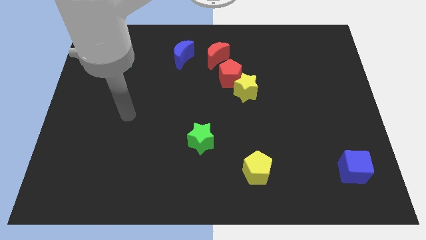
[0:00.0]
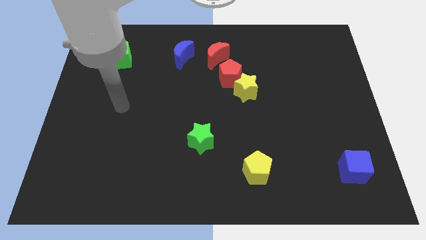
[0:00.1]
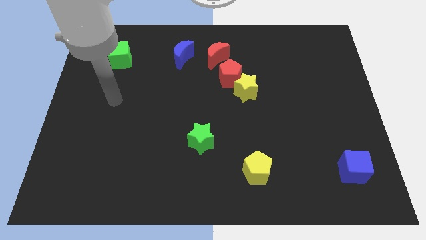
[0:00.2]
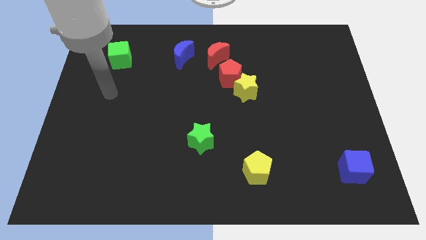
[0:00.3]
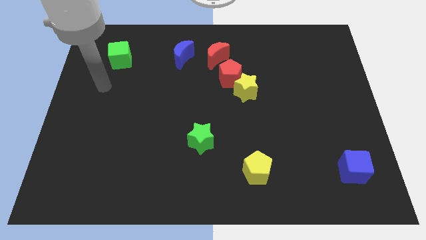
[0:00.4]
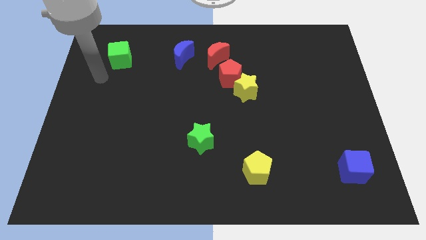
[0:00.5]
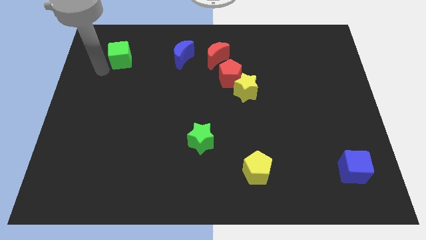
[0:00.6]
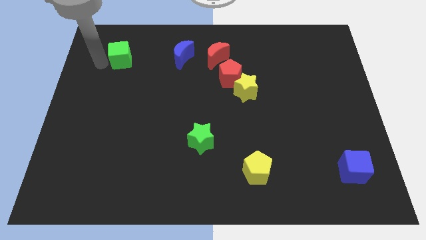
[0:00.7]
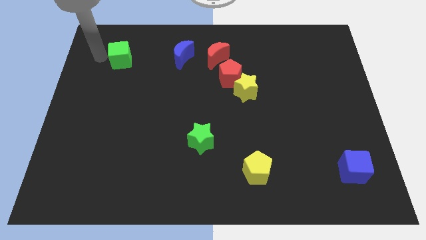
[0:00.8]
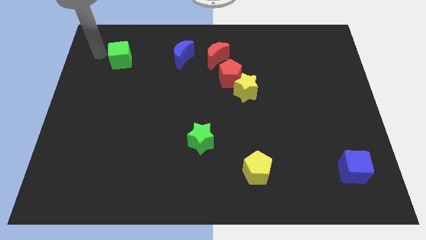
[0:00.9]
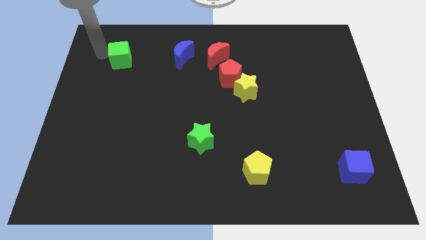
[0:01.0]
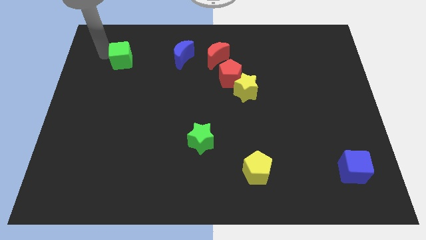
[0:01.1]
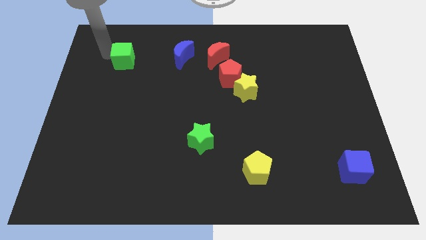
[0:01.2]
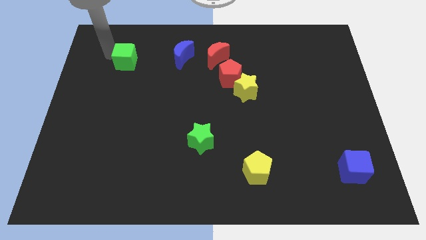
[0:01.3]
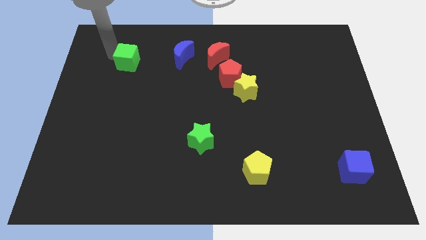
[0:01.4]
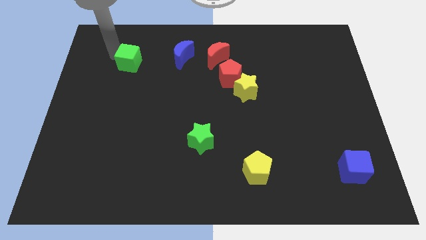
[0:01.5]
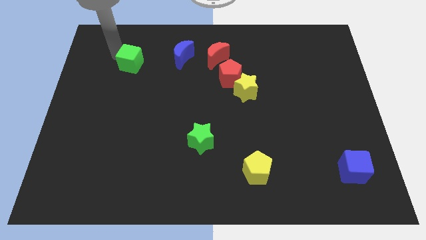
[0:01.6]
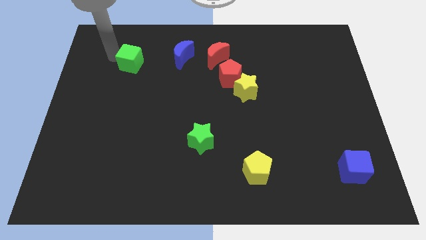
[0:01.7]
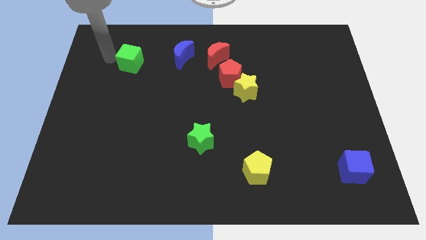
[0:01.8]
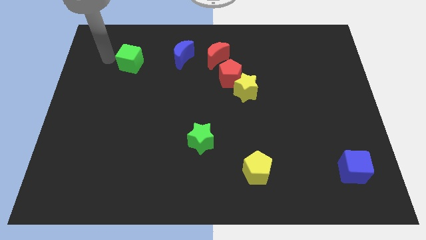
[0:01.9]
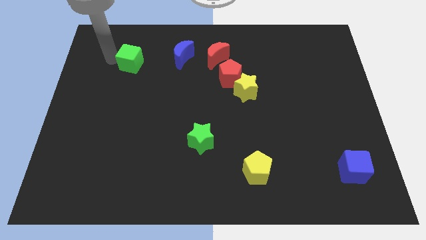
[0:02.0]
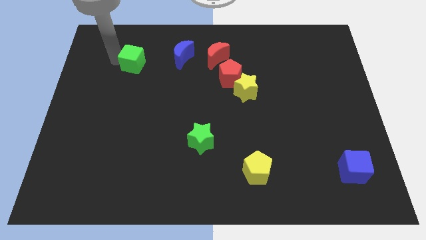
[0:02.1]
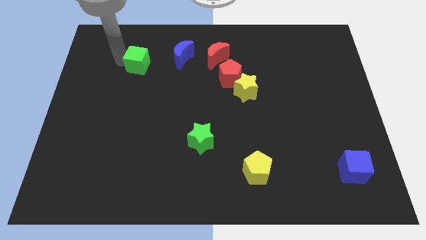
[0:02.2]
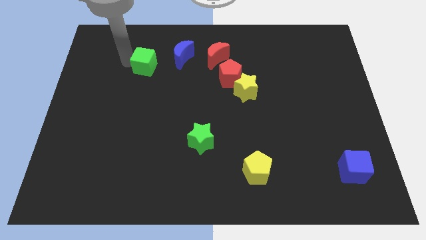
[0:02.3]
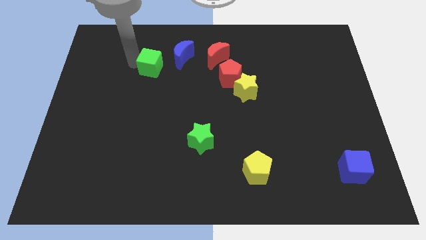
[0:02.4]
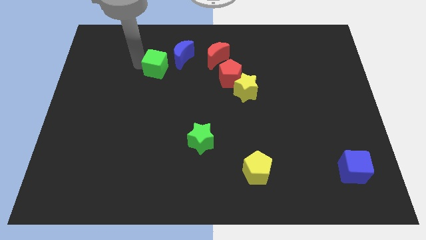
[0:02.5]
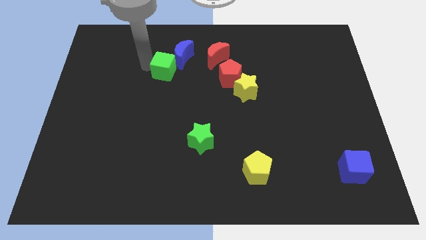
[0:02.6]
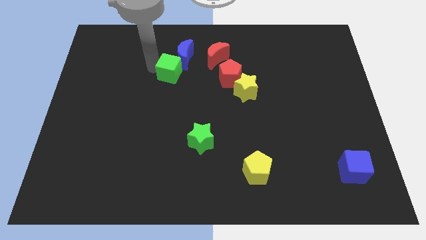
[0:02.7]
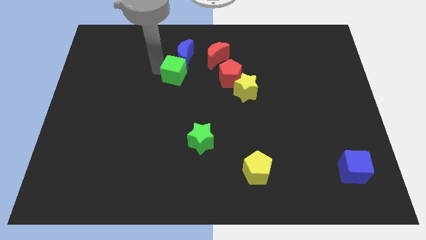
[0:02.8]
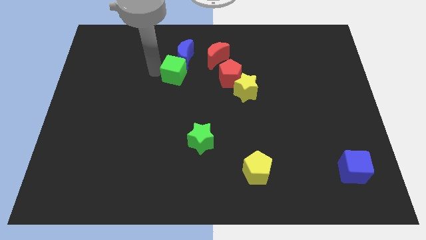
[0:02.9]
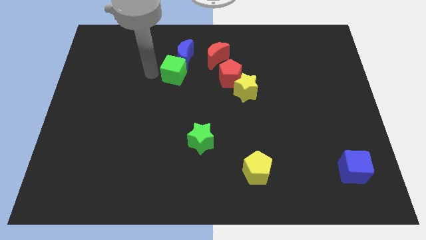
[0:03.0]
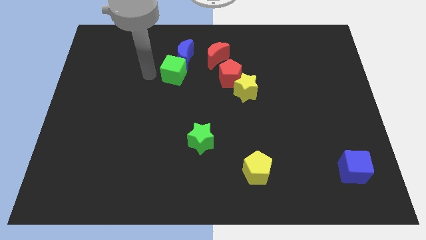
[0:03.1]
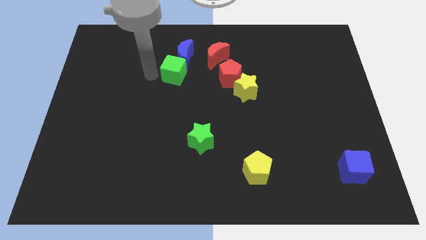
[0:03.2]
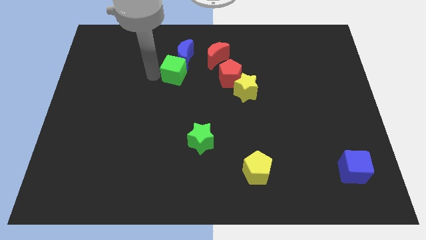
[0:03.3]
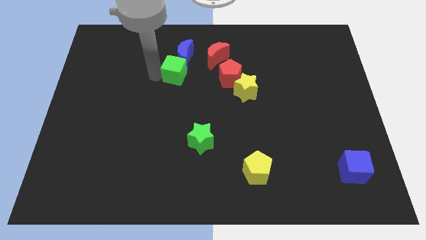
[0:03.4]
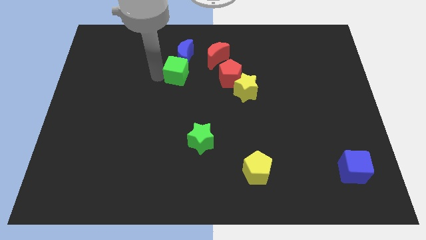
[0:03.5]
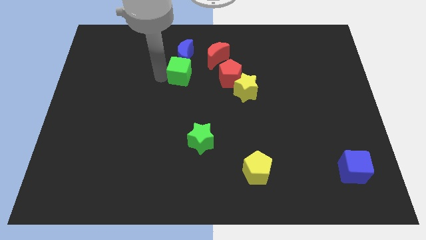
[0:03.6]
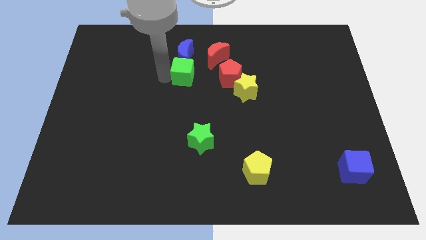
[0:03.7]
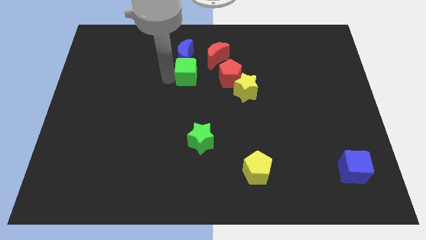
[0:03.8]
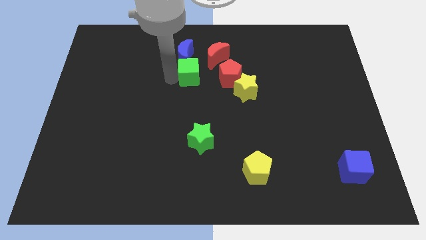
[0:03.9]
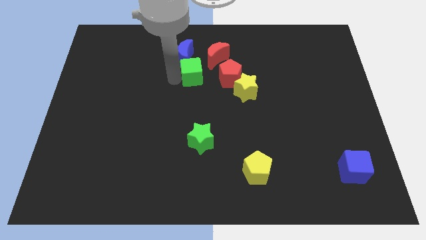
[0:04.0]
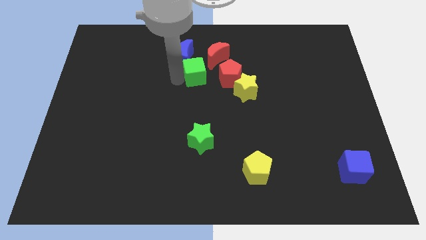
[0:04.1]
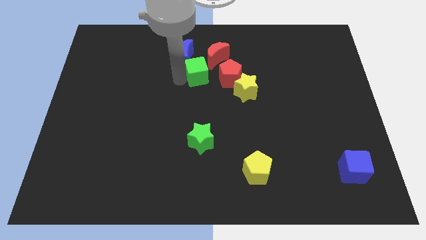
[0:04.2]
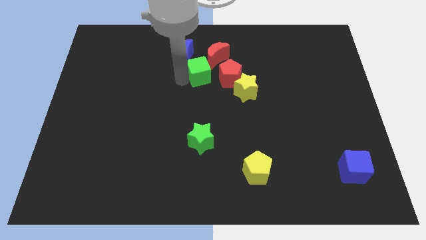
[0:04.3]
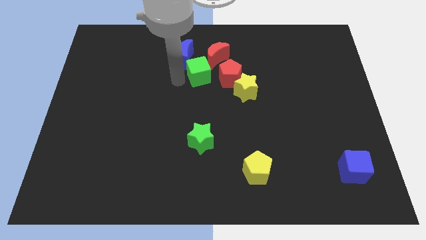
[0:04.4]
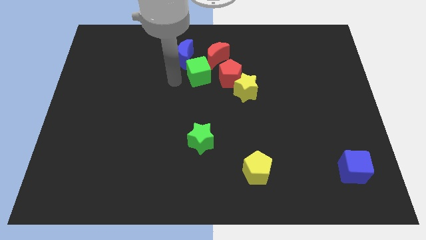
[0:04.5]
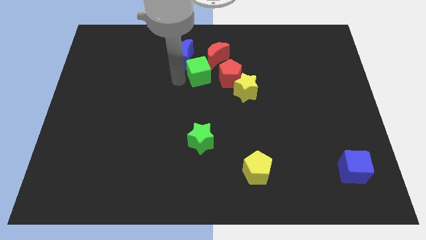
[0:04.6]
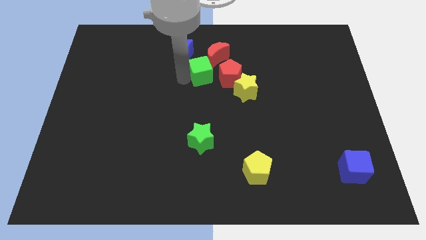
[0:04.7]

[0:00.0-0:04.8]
push the green cube right

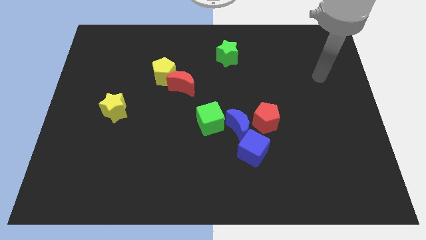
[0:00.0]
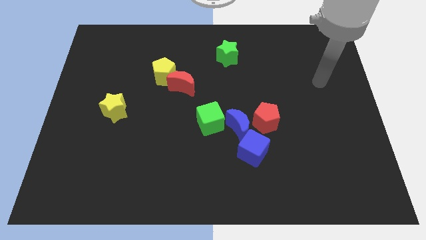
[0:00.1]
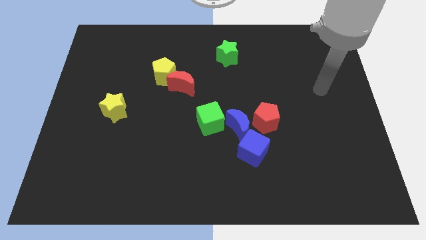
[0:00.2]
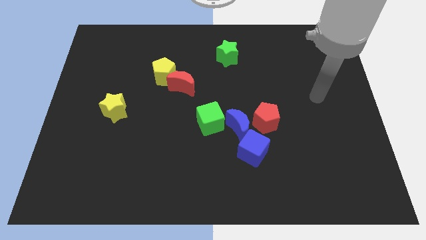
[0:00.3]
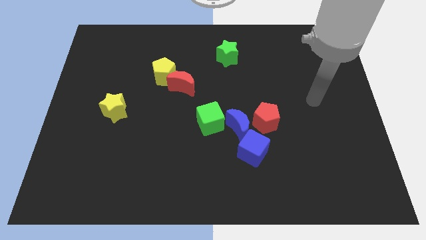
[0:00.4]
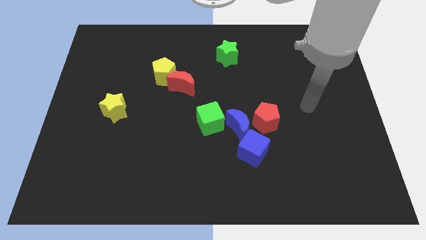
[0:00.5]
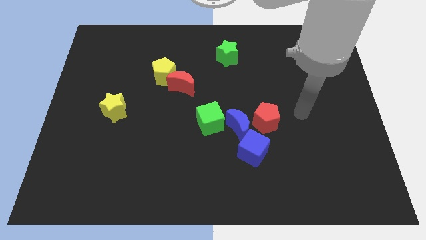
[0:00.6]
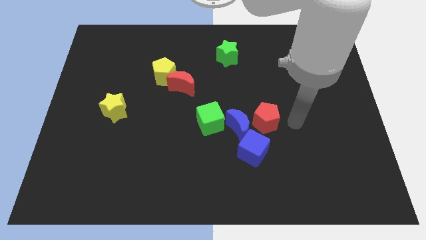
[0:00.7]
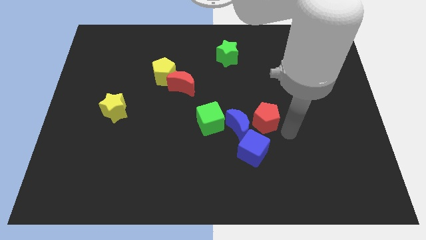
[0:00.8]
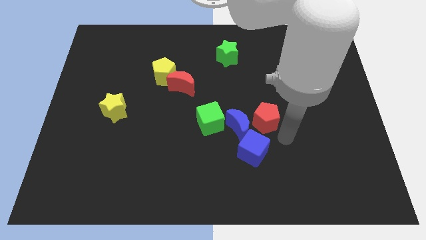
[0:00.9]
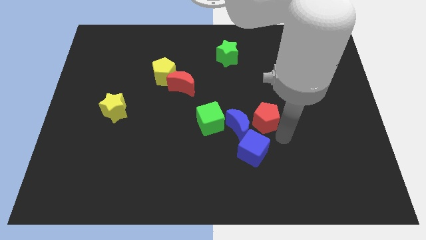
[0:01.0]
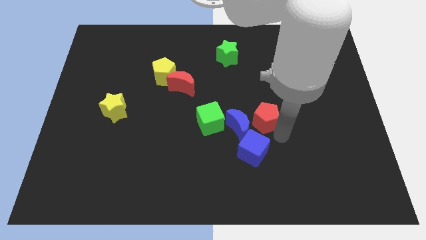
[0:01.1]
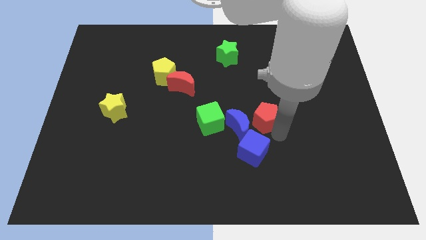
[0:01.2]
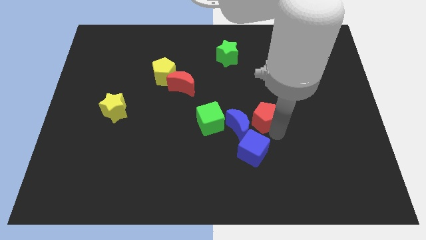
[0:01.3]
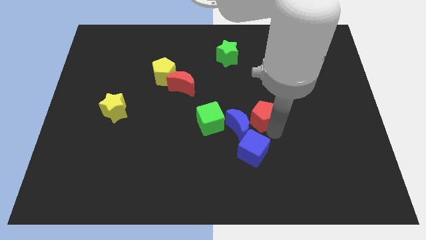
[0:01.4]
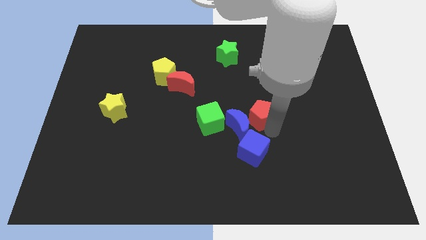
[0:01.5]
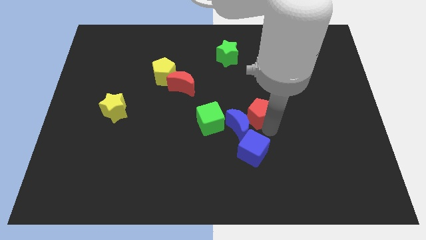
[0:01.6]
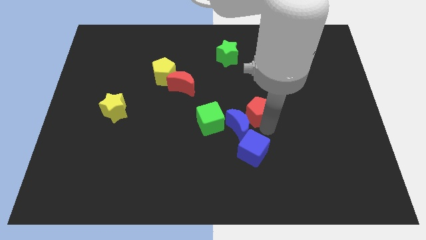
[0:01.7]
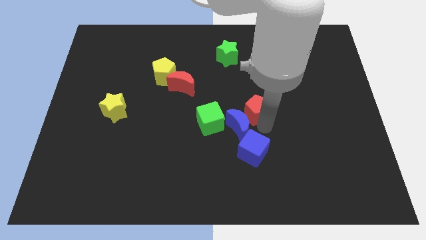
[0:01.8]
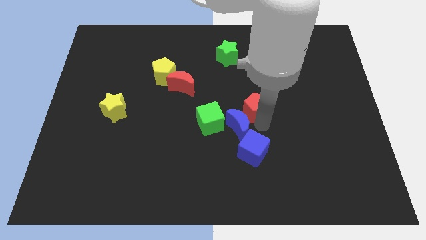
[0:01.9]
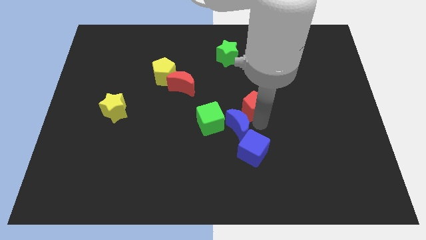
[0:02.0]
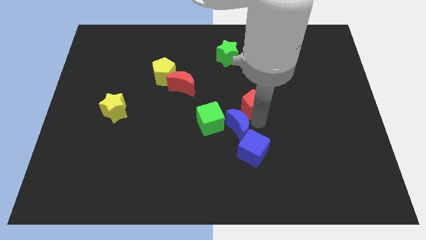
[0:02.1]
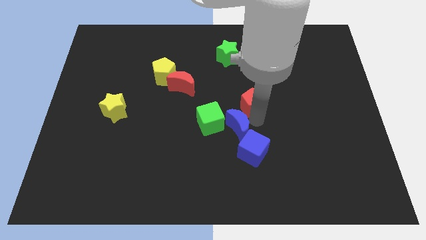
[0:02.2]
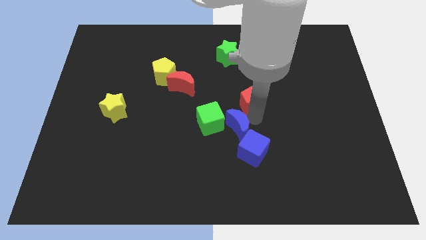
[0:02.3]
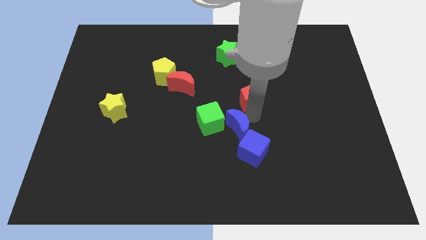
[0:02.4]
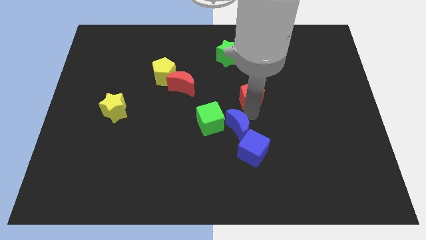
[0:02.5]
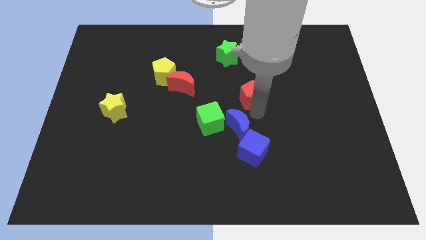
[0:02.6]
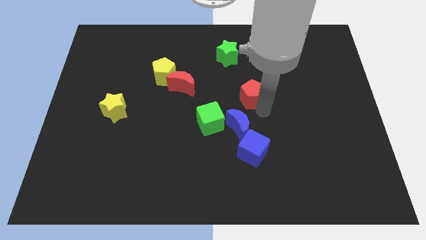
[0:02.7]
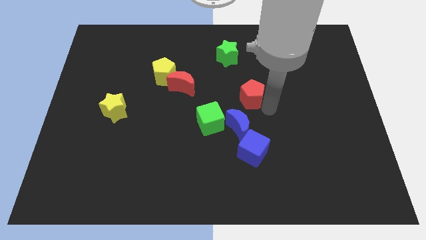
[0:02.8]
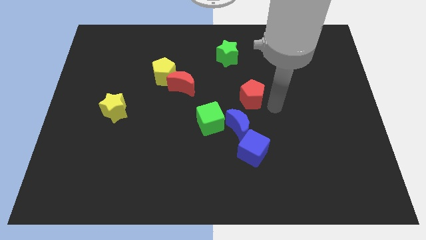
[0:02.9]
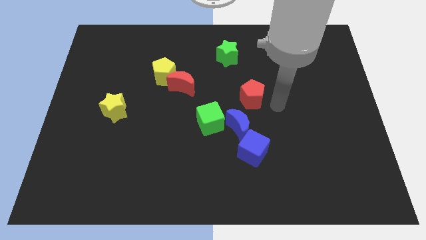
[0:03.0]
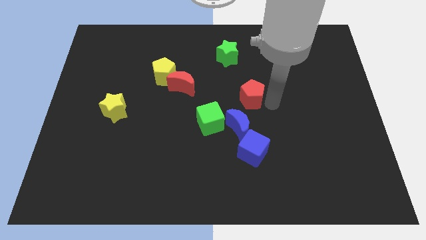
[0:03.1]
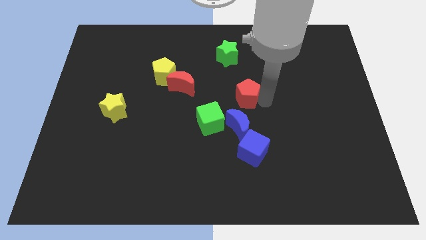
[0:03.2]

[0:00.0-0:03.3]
push the red pentagon somewhat diagonally upwards and to the left
